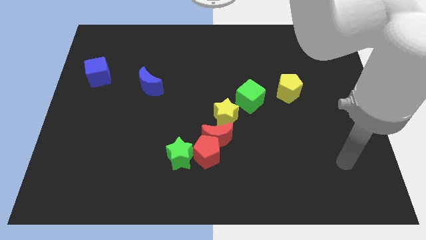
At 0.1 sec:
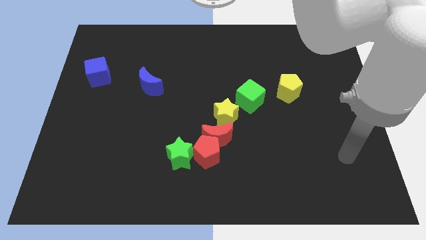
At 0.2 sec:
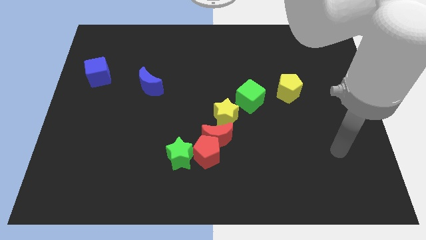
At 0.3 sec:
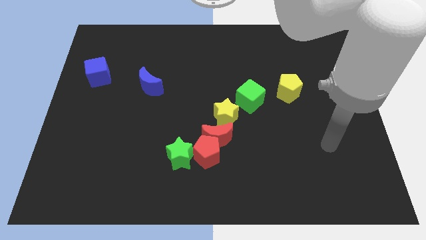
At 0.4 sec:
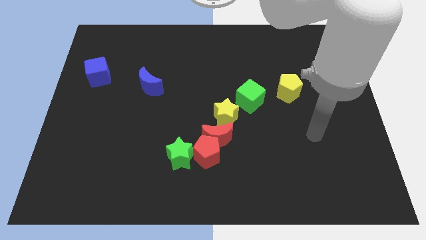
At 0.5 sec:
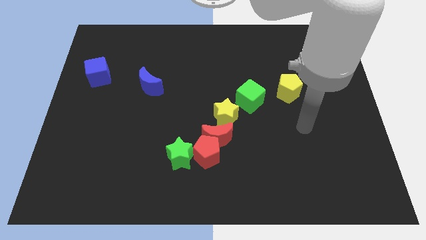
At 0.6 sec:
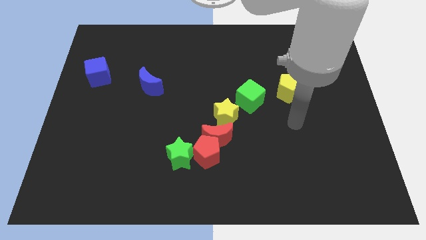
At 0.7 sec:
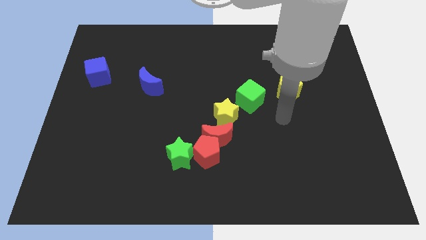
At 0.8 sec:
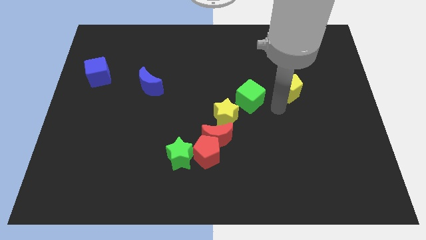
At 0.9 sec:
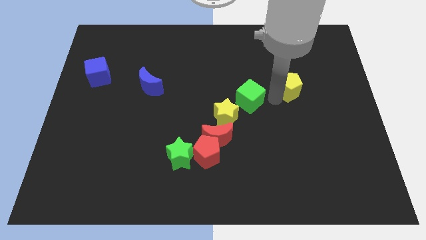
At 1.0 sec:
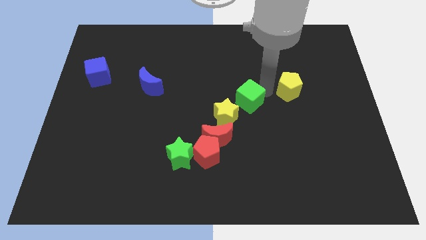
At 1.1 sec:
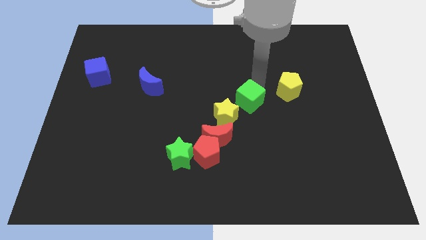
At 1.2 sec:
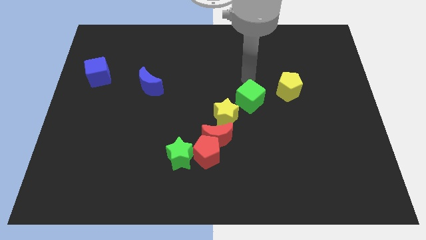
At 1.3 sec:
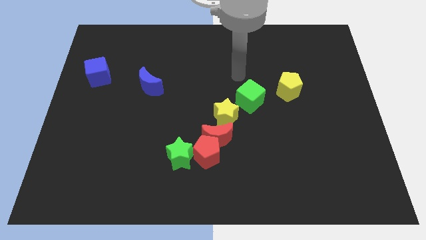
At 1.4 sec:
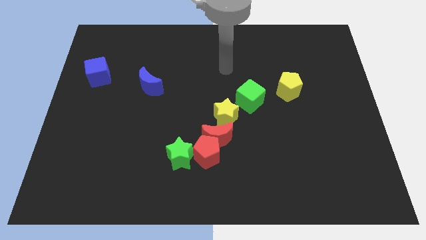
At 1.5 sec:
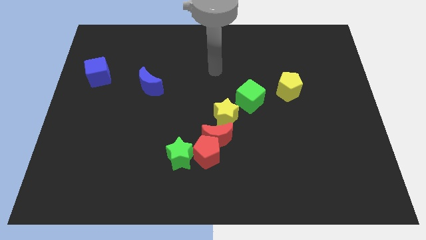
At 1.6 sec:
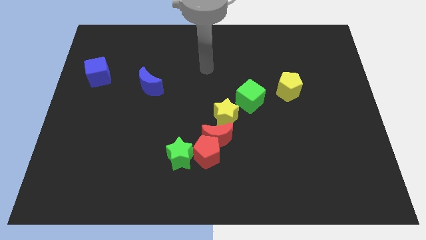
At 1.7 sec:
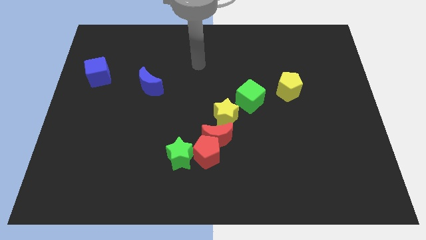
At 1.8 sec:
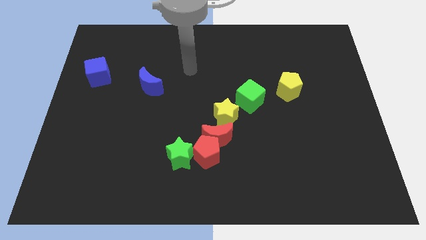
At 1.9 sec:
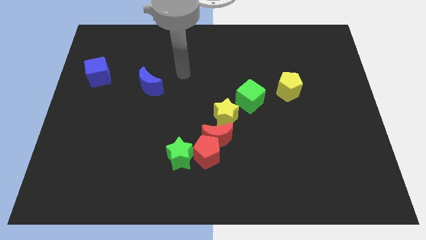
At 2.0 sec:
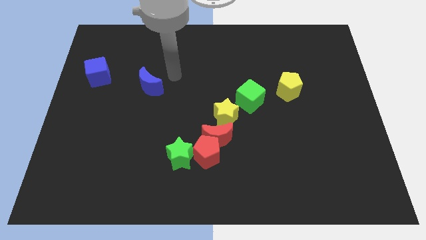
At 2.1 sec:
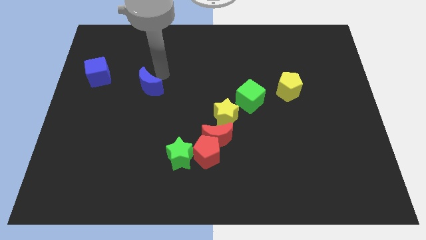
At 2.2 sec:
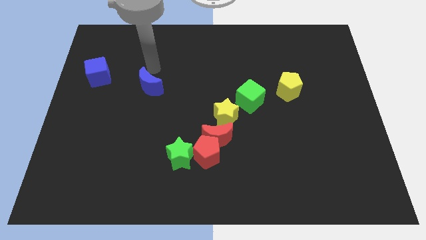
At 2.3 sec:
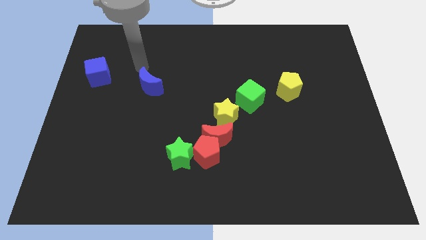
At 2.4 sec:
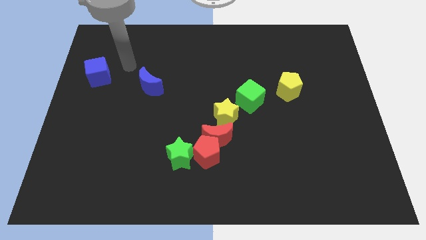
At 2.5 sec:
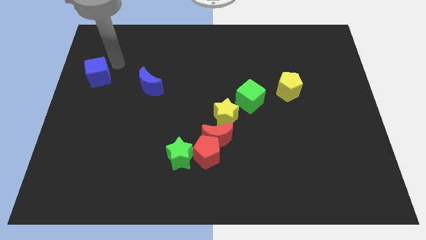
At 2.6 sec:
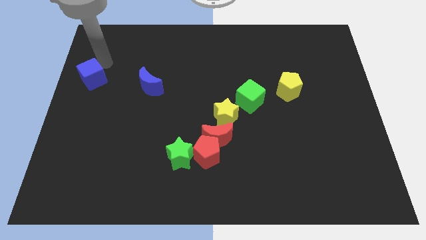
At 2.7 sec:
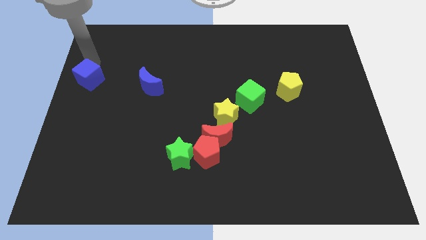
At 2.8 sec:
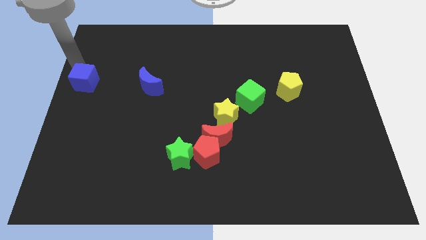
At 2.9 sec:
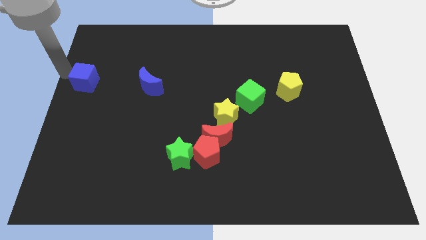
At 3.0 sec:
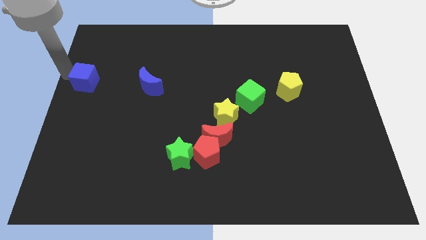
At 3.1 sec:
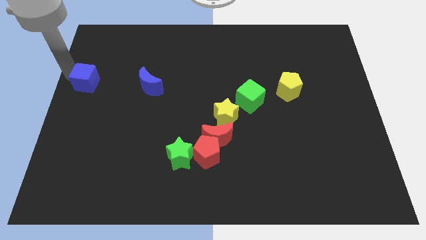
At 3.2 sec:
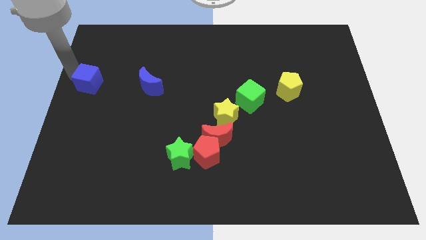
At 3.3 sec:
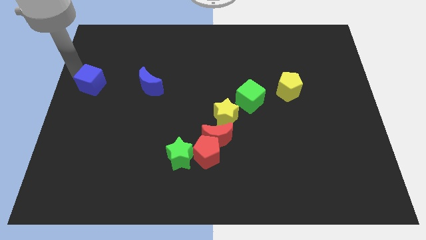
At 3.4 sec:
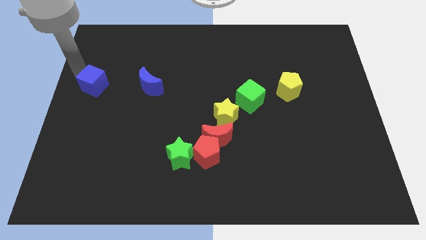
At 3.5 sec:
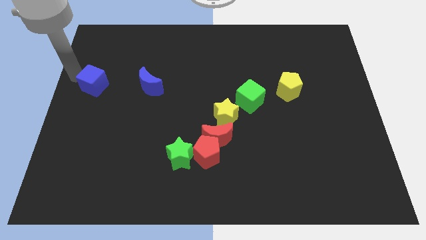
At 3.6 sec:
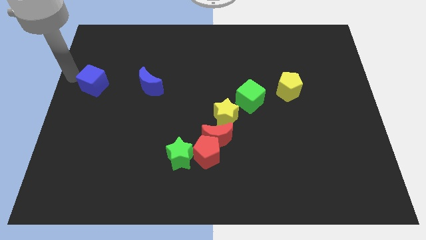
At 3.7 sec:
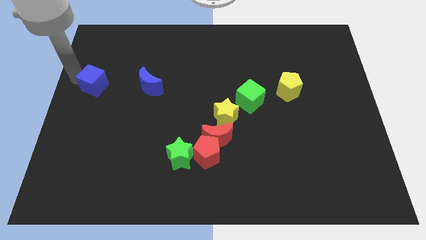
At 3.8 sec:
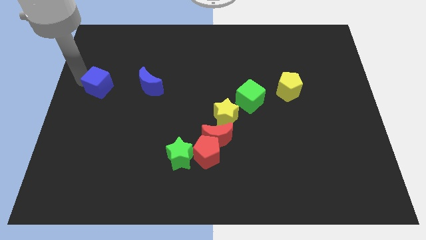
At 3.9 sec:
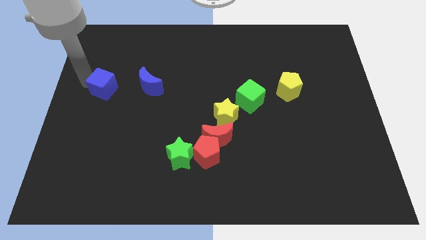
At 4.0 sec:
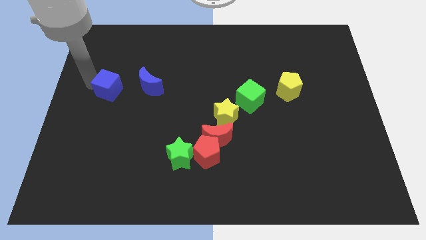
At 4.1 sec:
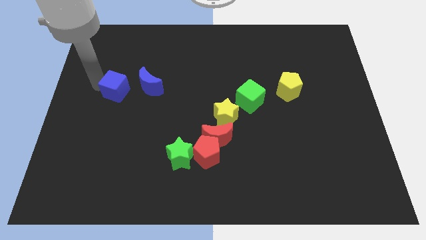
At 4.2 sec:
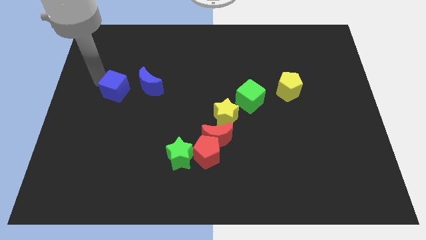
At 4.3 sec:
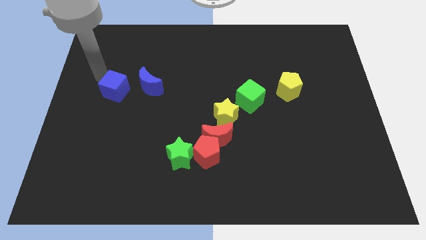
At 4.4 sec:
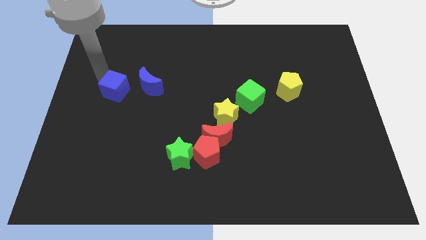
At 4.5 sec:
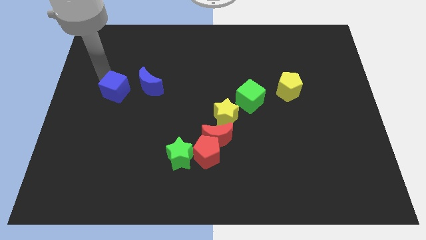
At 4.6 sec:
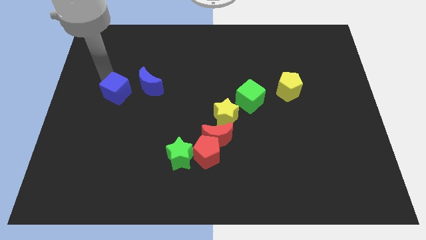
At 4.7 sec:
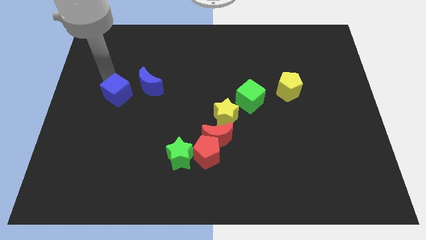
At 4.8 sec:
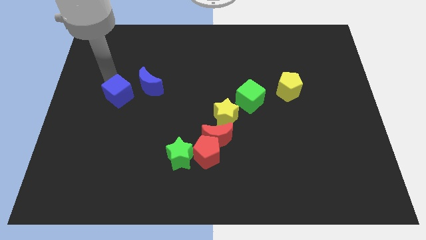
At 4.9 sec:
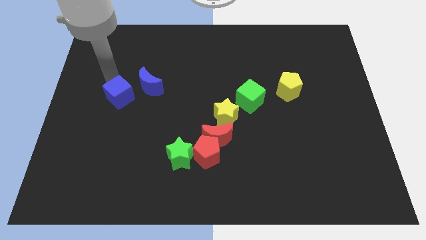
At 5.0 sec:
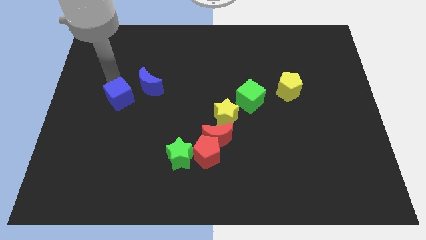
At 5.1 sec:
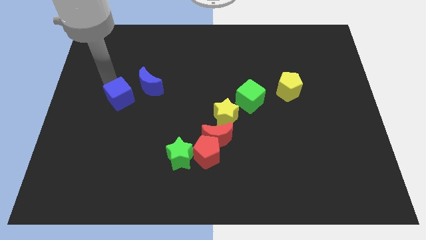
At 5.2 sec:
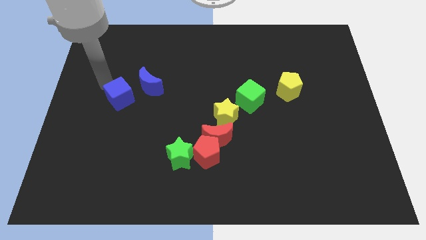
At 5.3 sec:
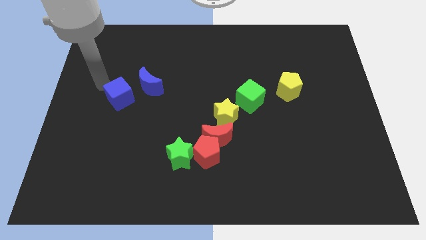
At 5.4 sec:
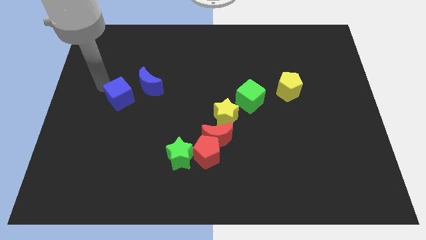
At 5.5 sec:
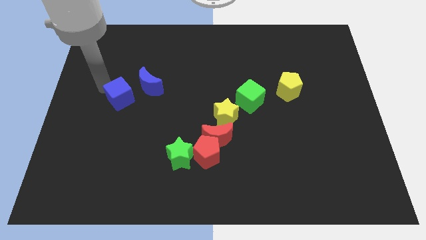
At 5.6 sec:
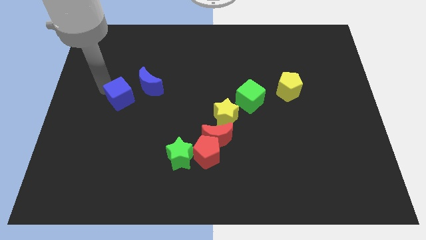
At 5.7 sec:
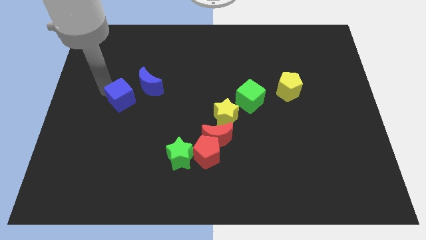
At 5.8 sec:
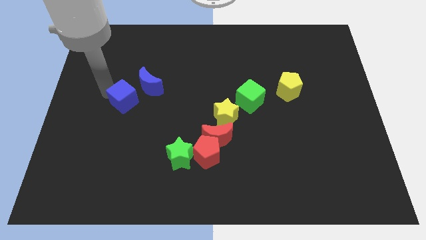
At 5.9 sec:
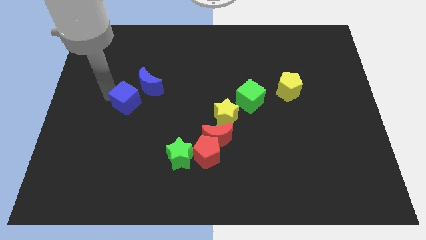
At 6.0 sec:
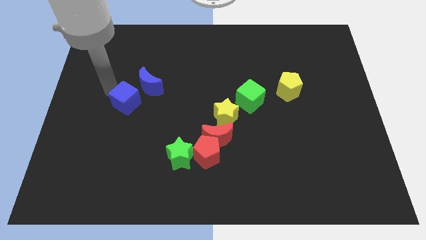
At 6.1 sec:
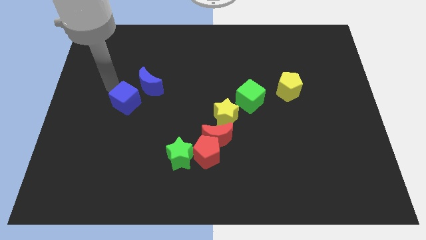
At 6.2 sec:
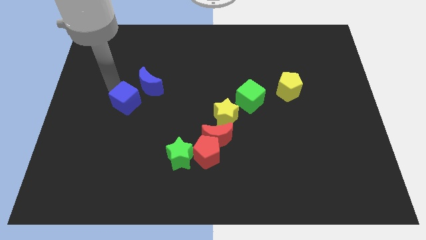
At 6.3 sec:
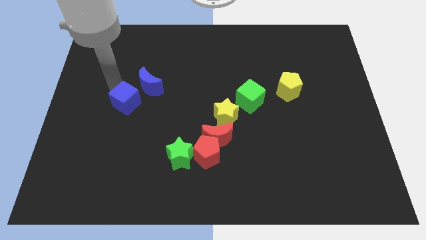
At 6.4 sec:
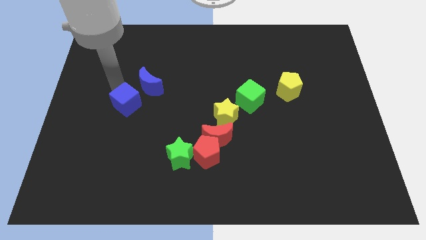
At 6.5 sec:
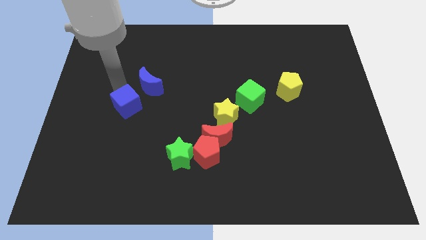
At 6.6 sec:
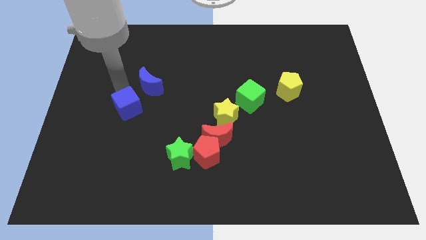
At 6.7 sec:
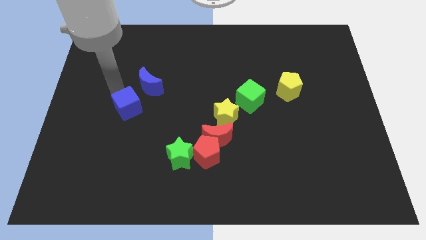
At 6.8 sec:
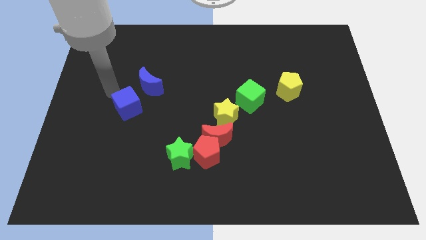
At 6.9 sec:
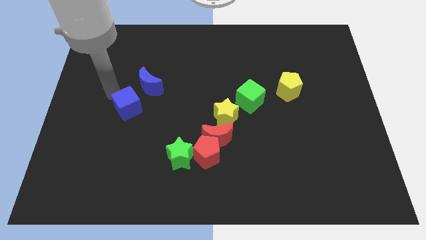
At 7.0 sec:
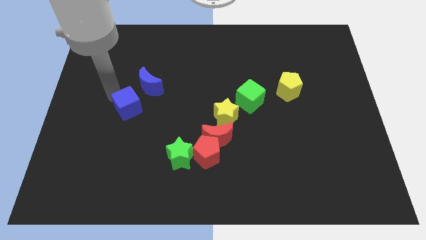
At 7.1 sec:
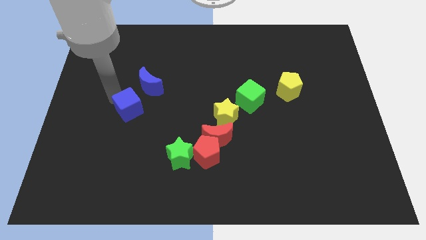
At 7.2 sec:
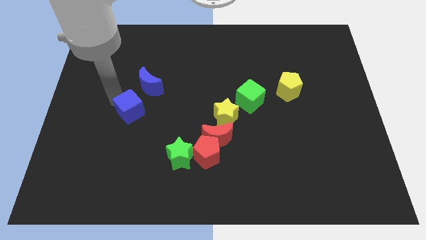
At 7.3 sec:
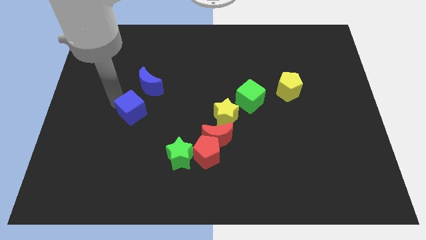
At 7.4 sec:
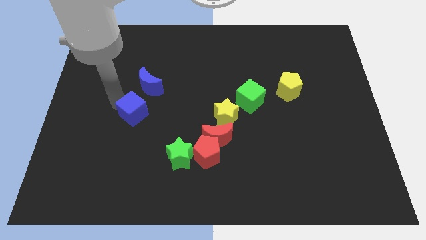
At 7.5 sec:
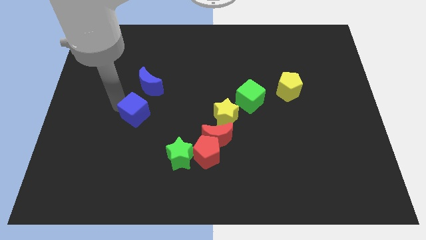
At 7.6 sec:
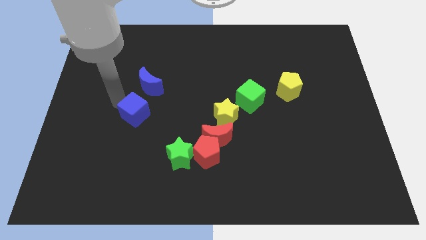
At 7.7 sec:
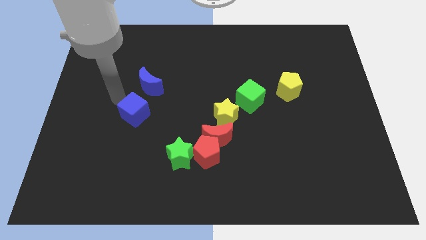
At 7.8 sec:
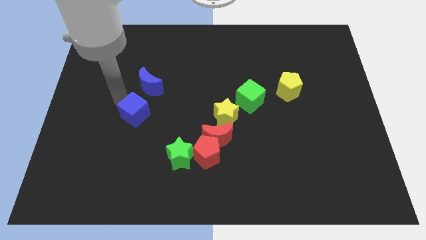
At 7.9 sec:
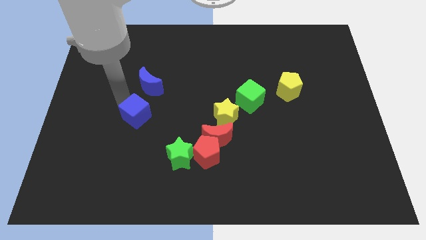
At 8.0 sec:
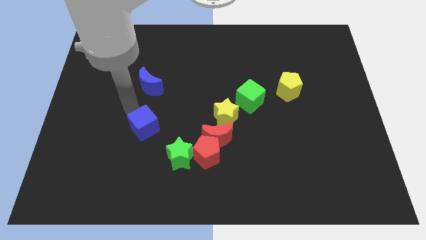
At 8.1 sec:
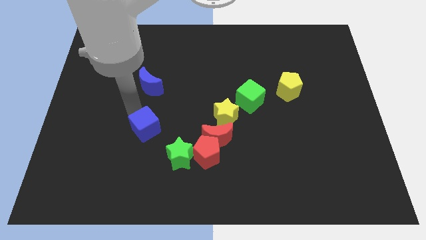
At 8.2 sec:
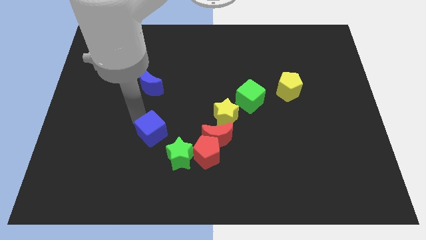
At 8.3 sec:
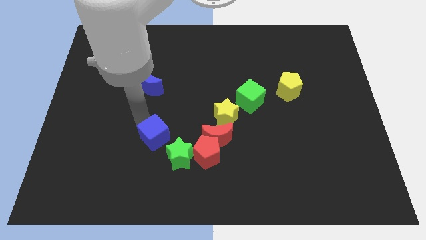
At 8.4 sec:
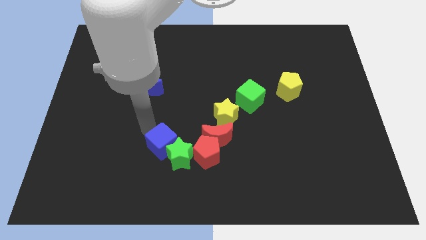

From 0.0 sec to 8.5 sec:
push the blue cube towards the green star
